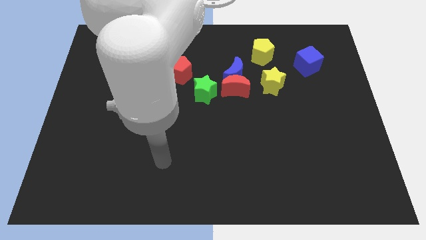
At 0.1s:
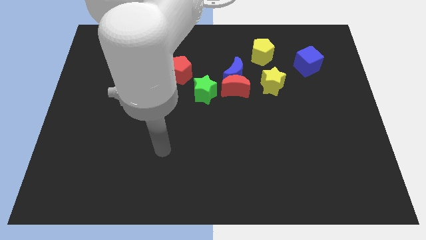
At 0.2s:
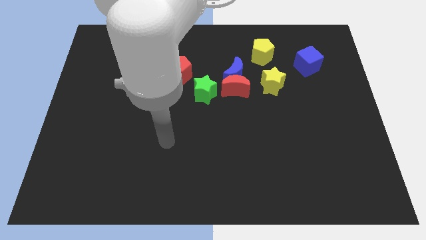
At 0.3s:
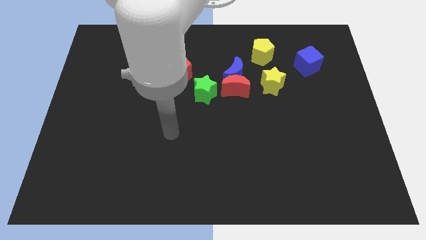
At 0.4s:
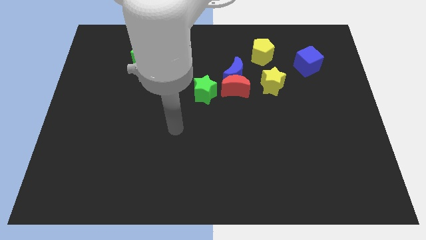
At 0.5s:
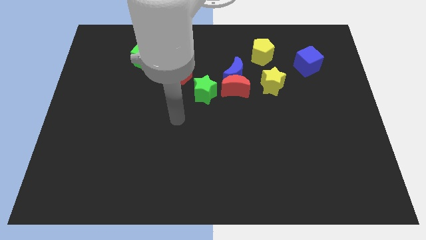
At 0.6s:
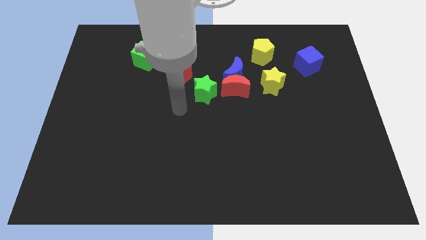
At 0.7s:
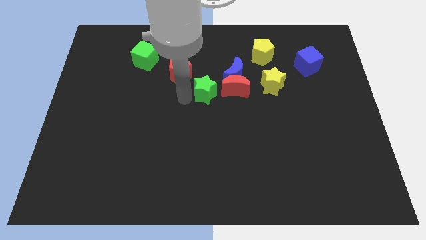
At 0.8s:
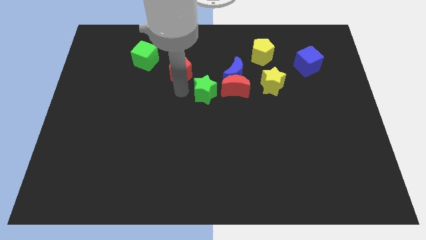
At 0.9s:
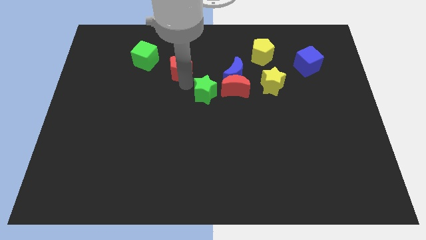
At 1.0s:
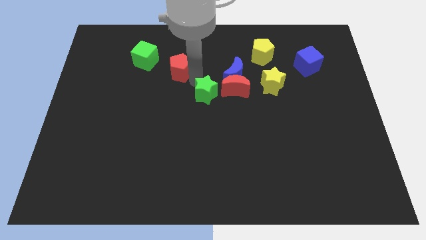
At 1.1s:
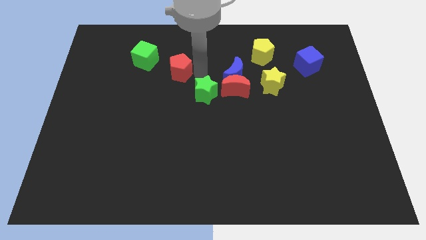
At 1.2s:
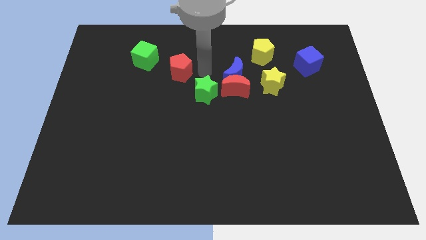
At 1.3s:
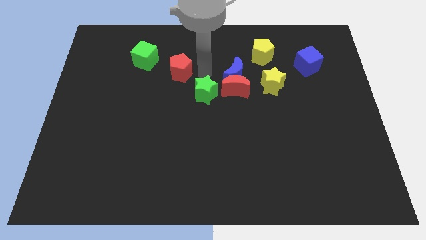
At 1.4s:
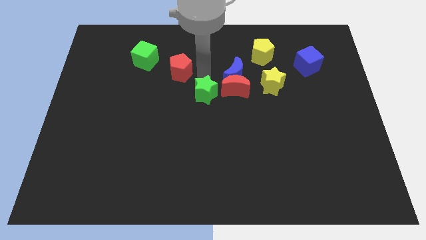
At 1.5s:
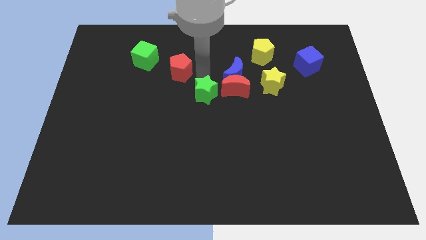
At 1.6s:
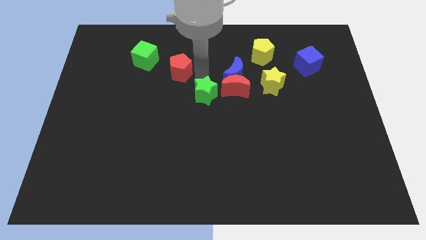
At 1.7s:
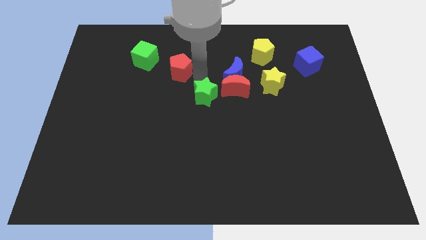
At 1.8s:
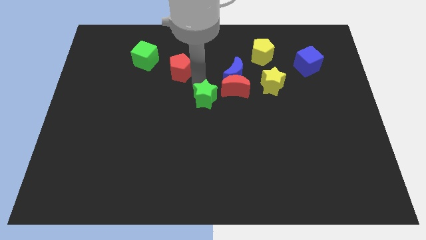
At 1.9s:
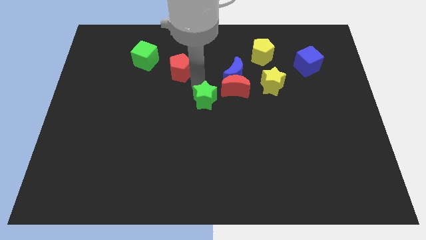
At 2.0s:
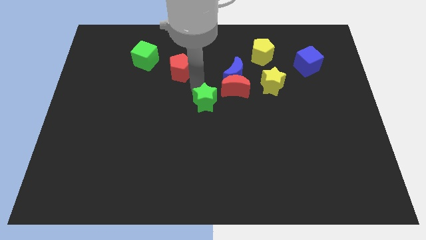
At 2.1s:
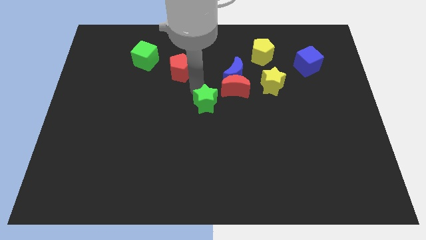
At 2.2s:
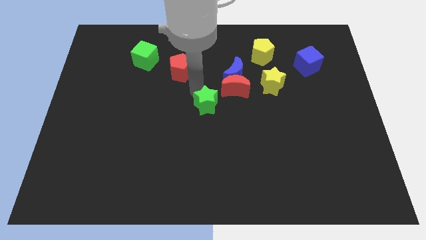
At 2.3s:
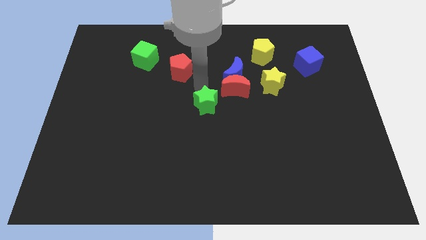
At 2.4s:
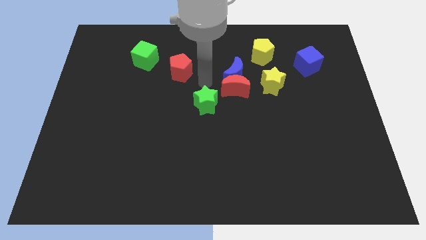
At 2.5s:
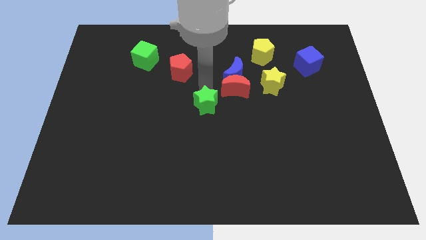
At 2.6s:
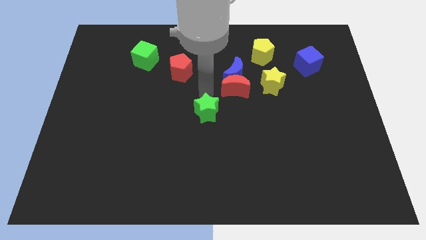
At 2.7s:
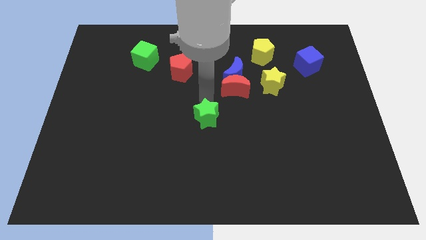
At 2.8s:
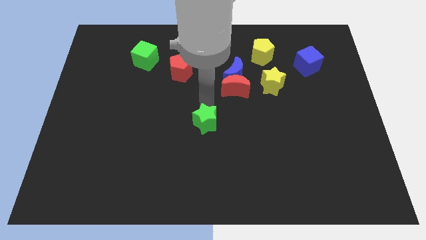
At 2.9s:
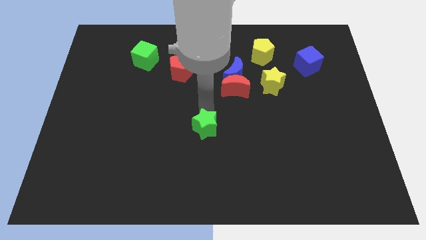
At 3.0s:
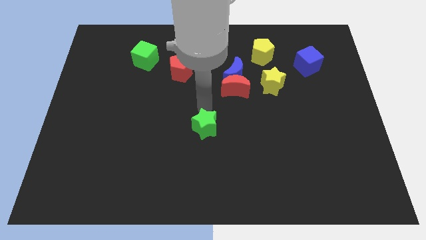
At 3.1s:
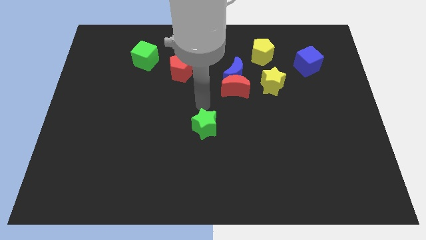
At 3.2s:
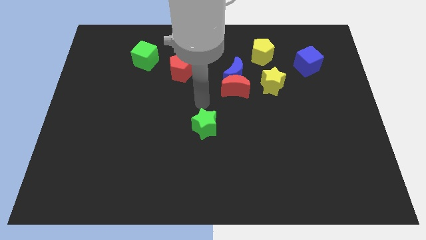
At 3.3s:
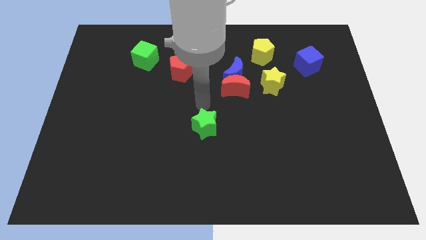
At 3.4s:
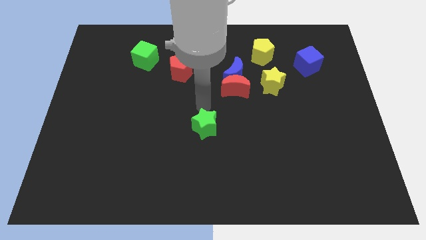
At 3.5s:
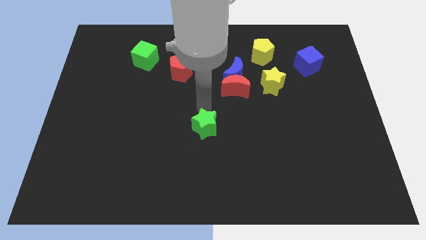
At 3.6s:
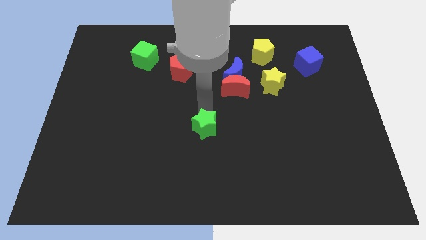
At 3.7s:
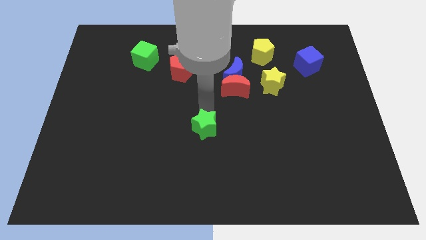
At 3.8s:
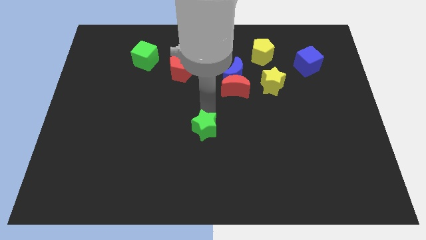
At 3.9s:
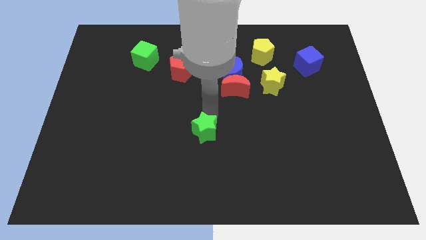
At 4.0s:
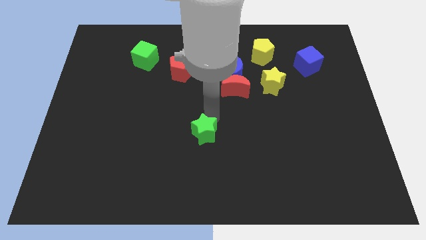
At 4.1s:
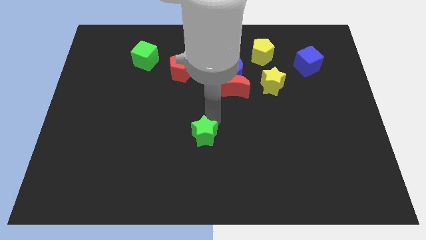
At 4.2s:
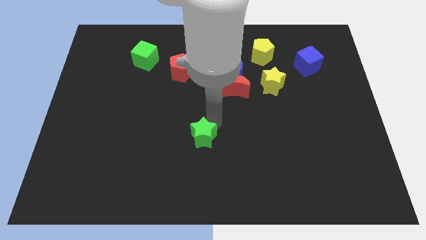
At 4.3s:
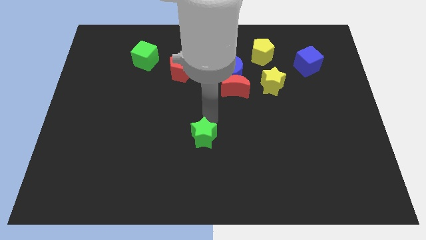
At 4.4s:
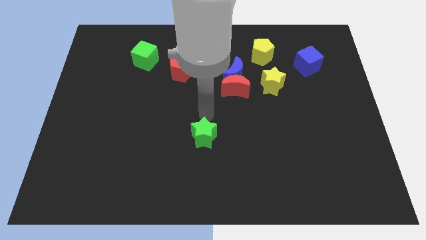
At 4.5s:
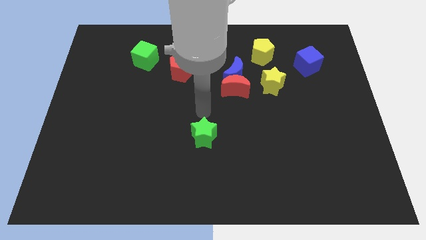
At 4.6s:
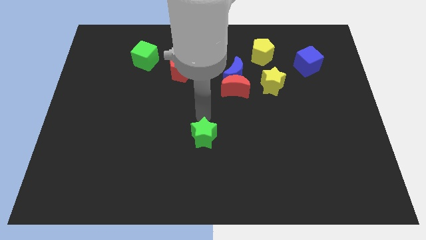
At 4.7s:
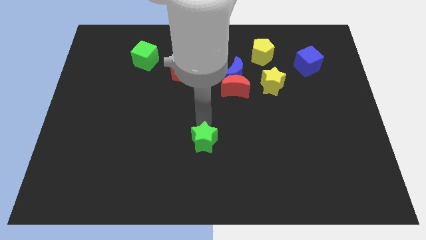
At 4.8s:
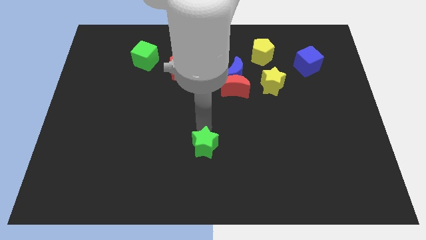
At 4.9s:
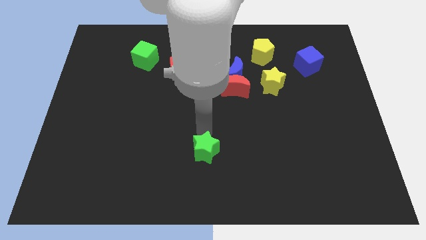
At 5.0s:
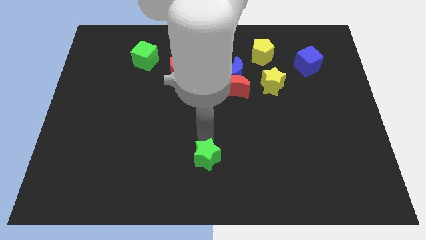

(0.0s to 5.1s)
put the green star to the bottom
